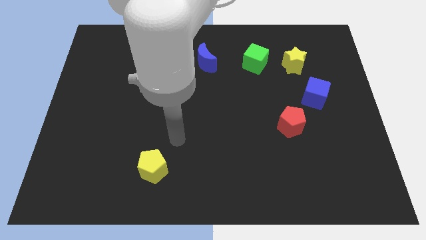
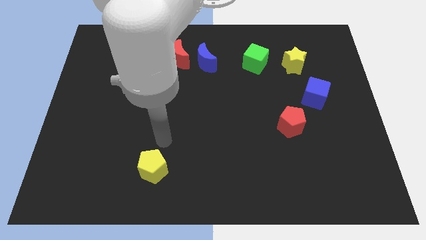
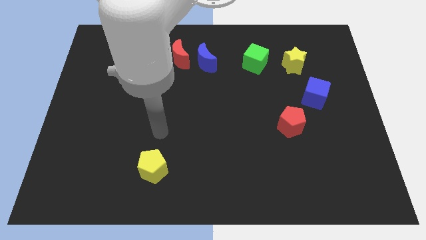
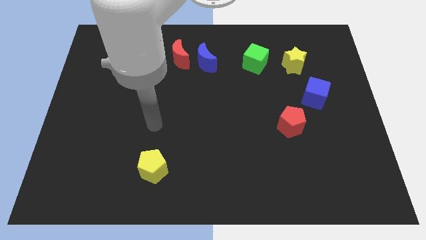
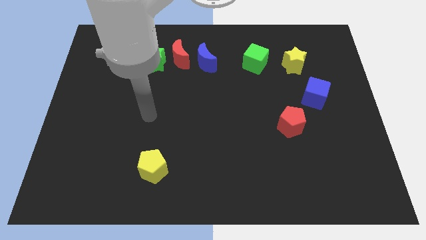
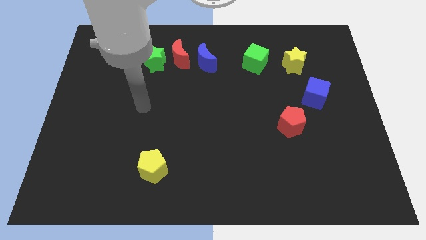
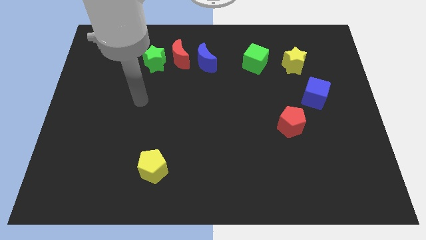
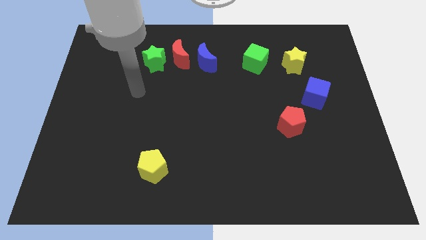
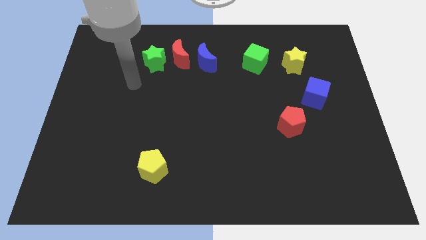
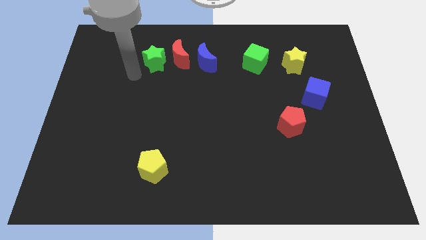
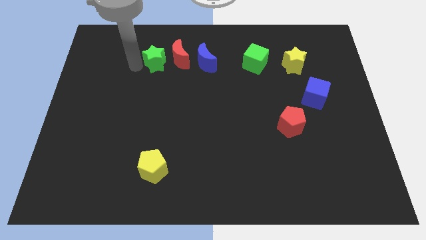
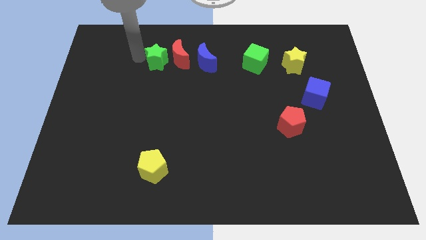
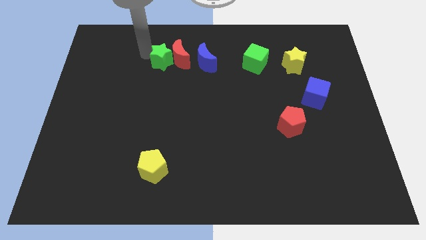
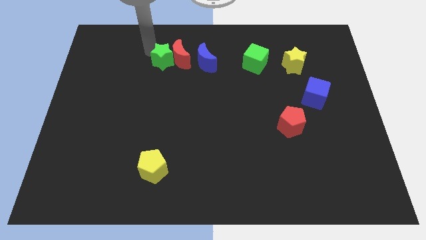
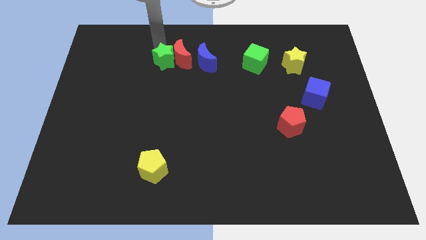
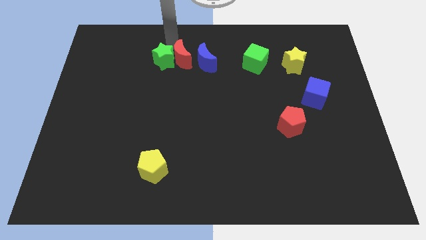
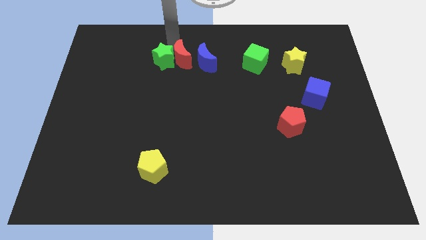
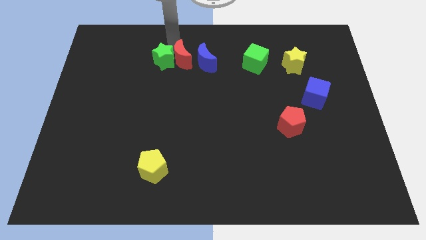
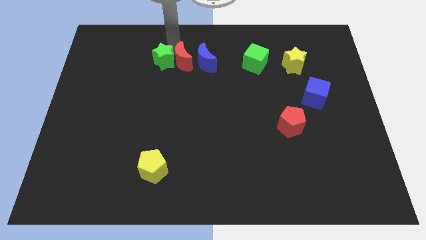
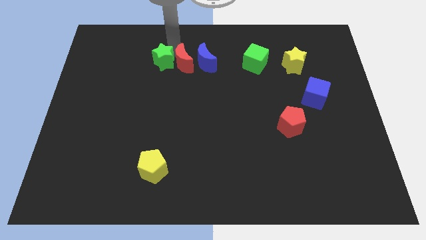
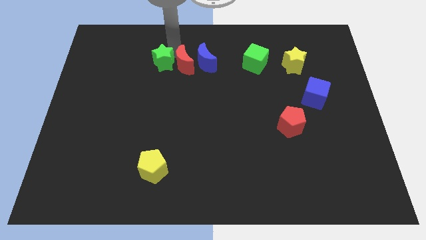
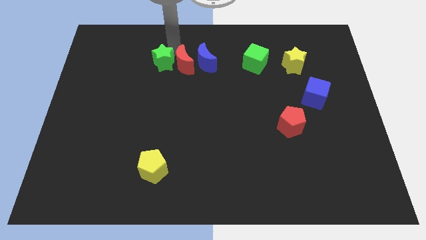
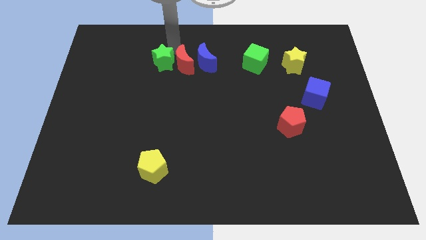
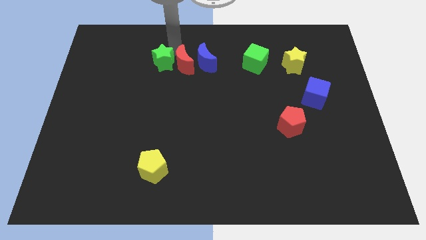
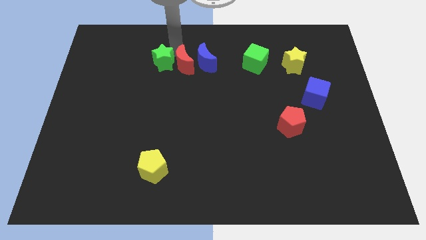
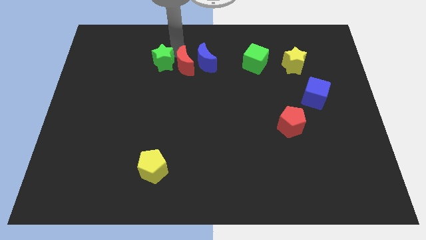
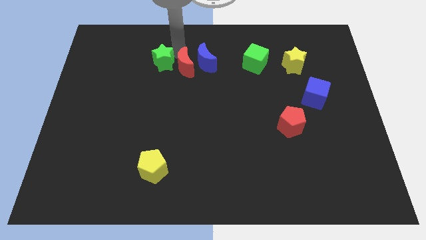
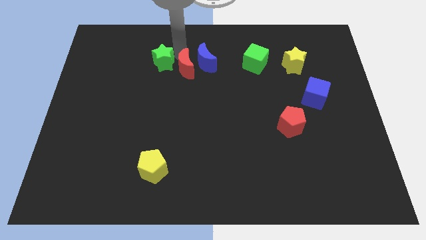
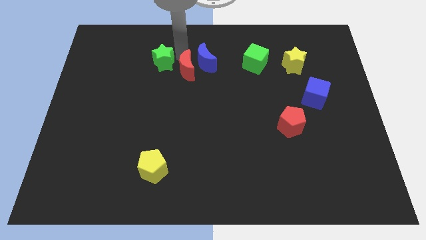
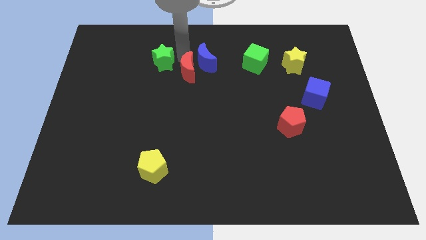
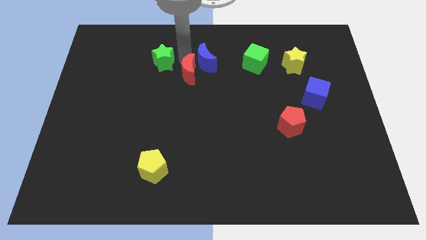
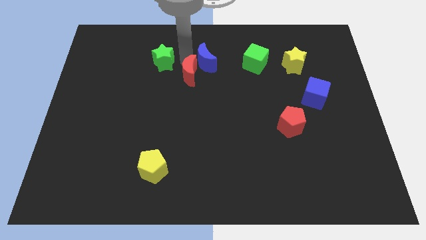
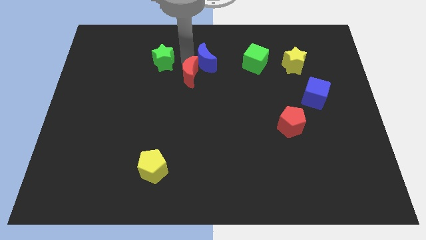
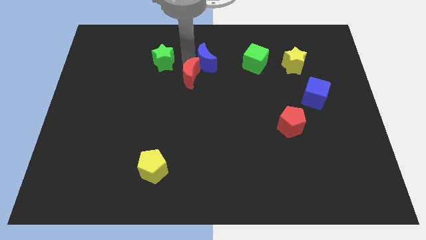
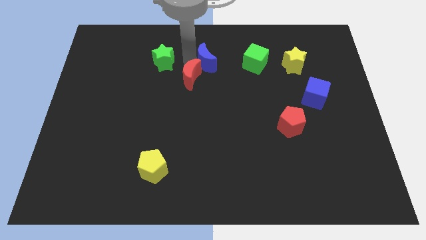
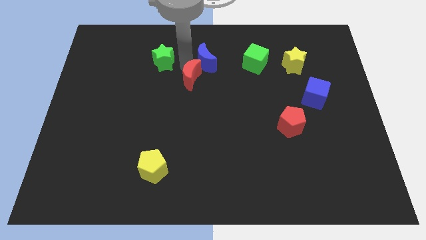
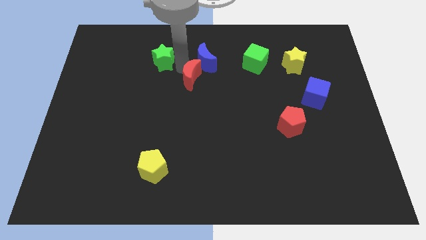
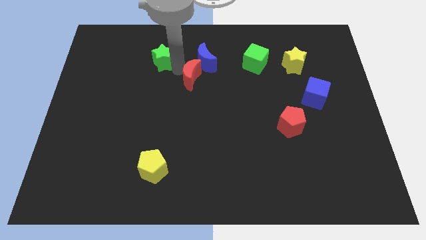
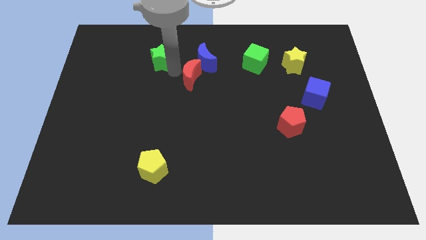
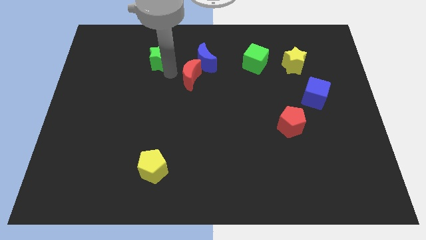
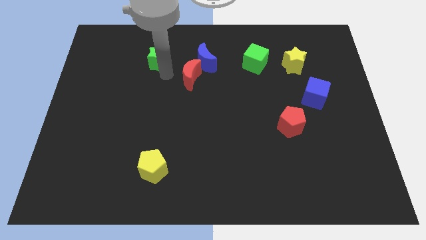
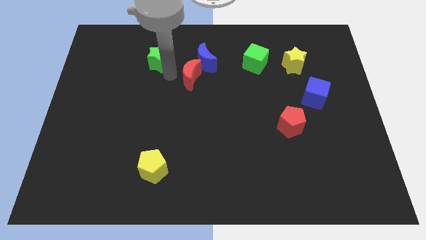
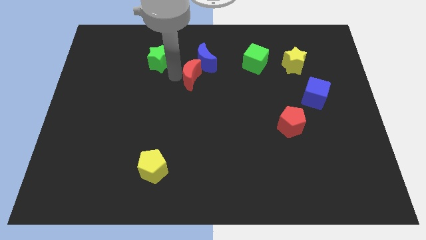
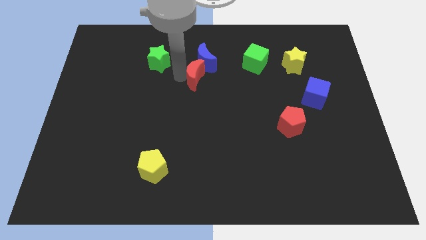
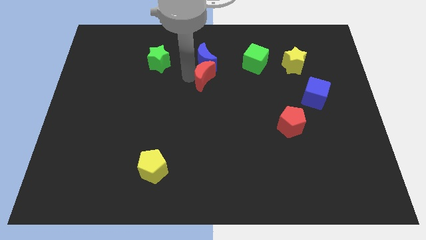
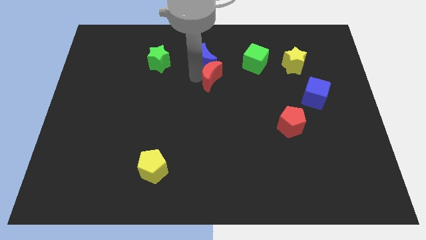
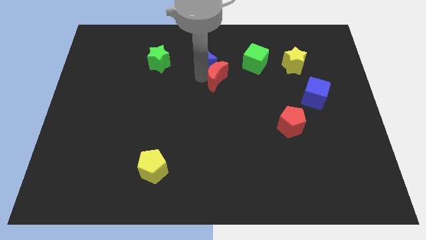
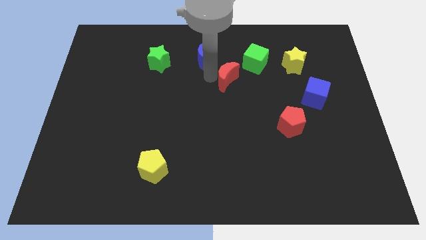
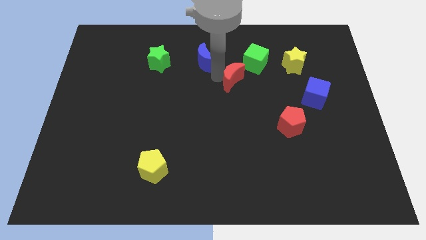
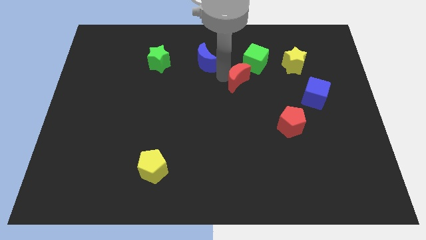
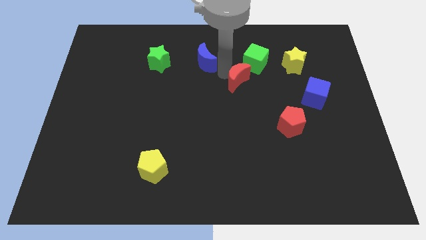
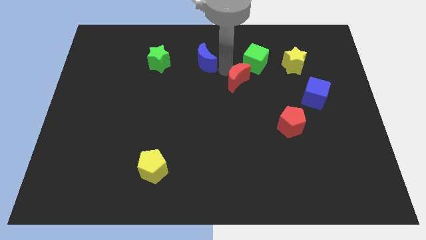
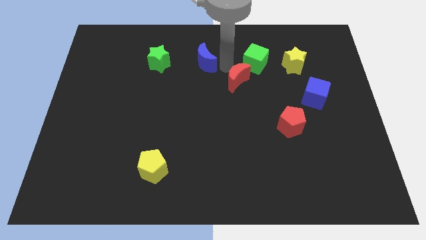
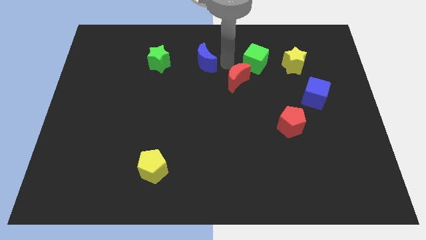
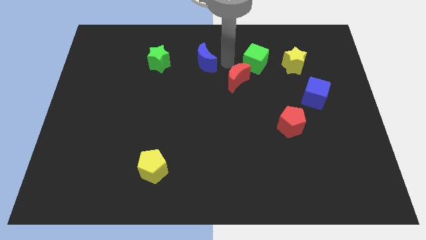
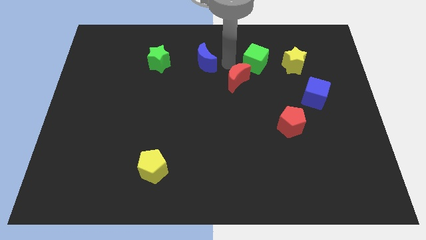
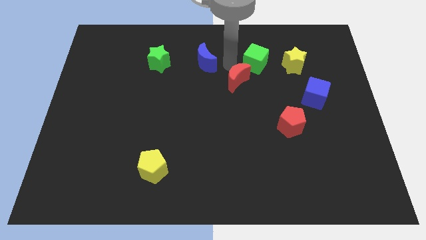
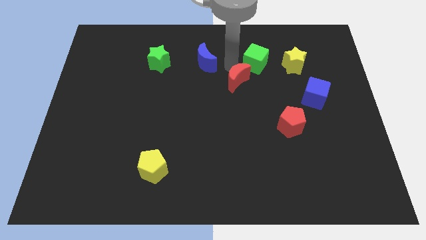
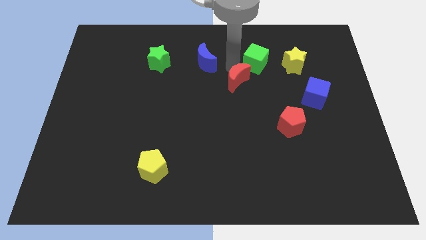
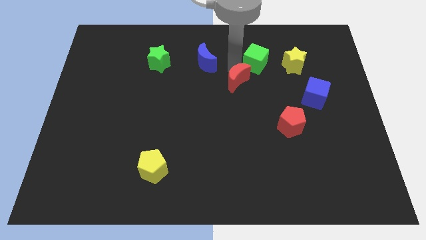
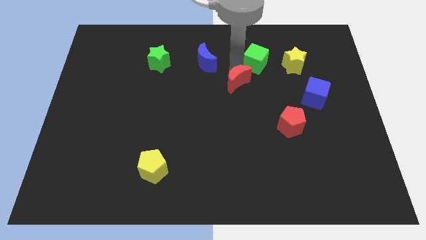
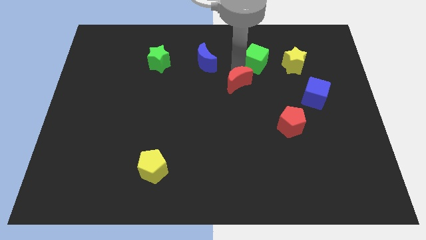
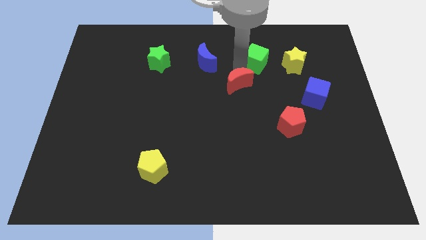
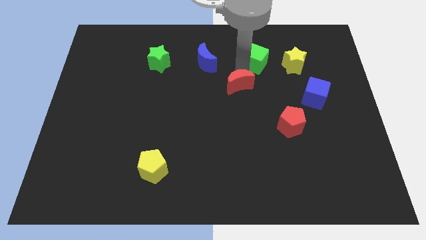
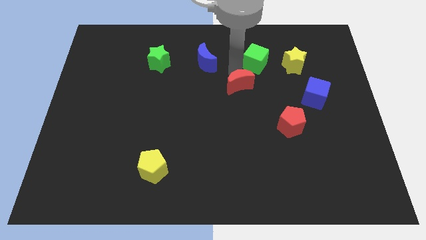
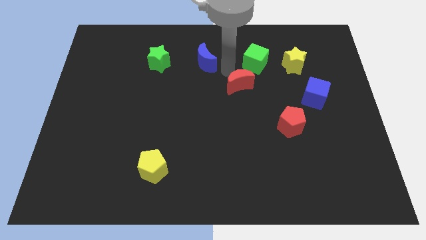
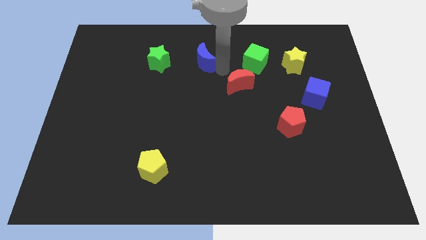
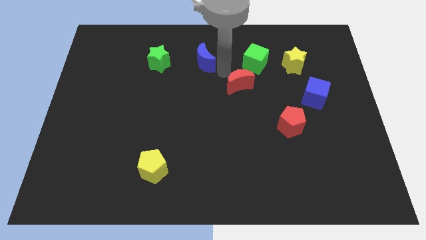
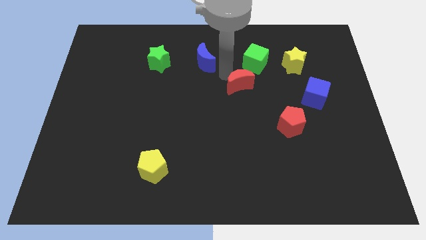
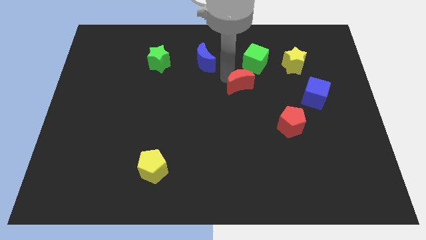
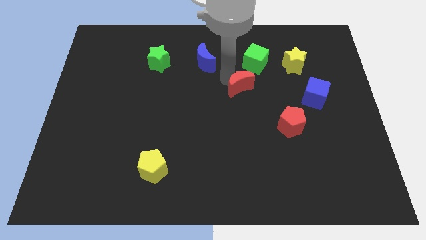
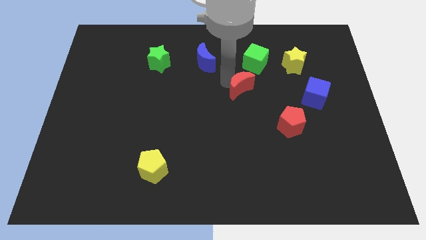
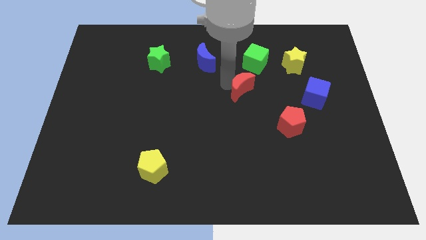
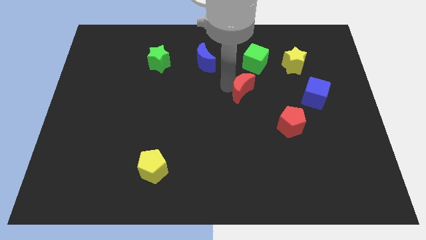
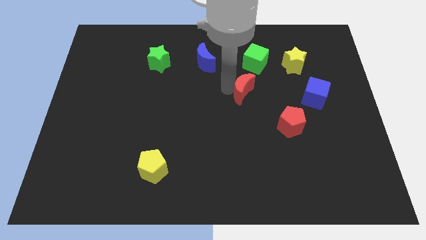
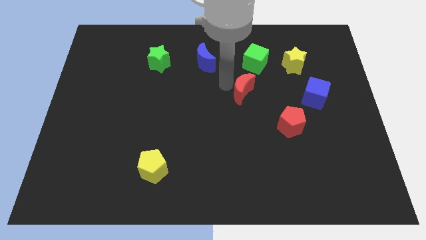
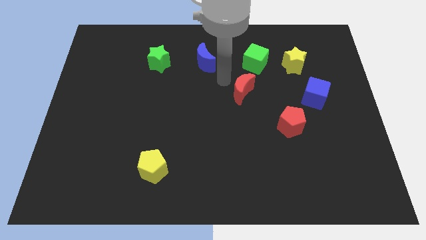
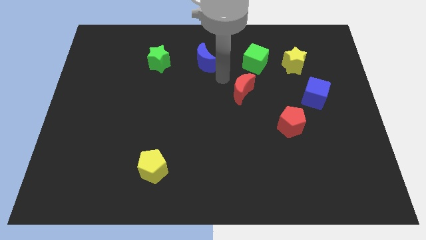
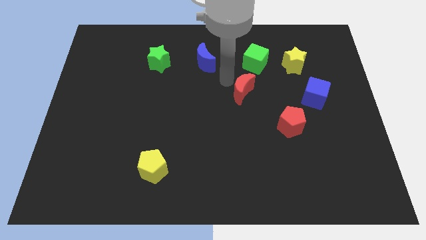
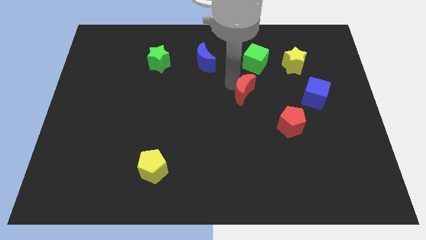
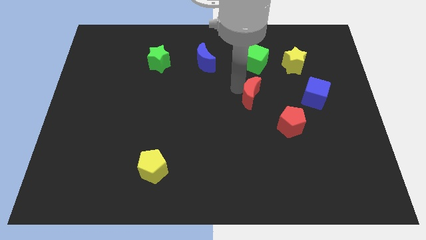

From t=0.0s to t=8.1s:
push the red moon to the top left of the red pentagon
